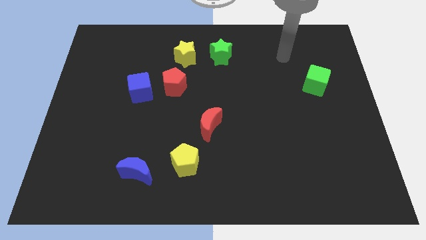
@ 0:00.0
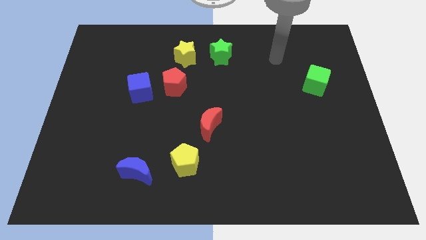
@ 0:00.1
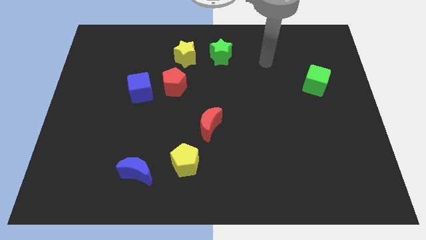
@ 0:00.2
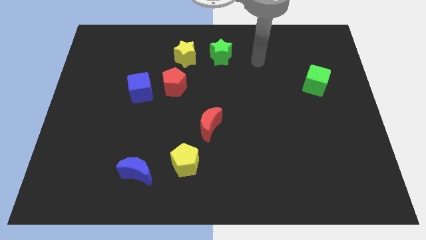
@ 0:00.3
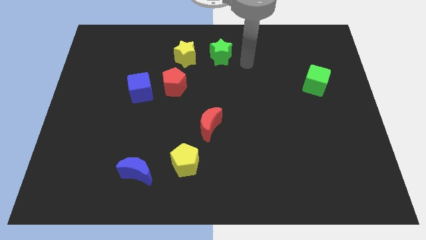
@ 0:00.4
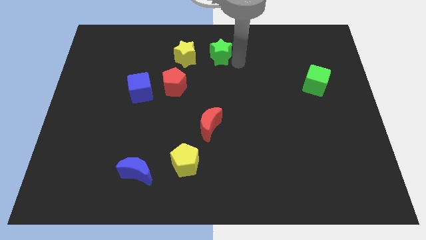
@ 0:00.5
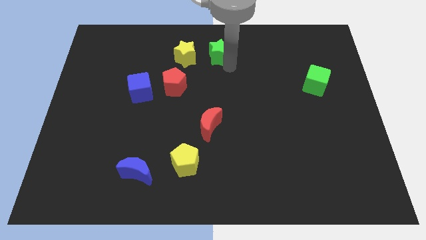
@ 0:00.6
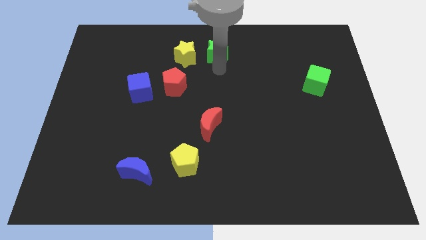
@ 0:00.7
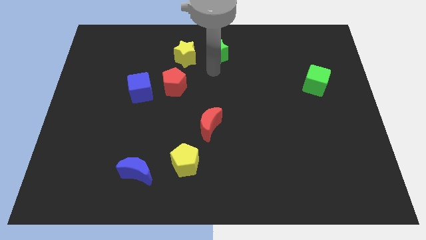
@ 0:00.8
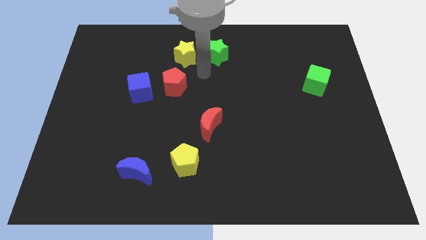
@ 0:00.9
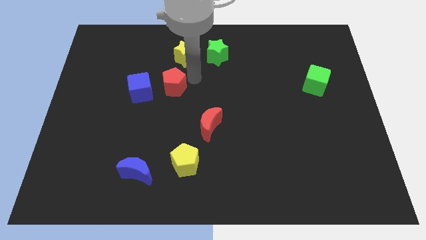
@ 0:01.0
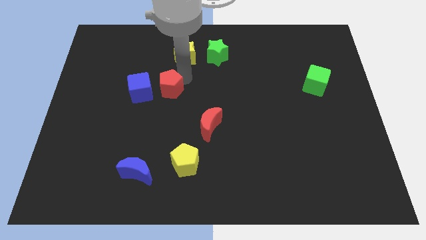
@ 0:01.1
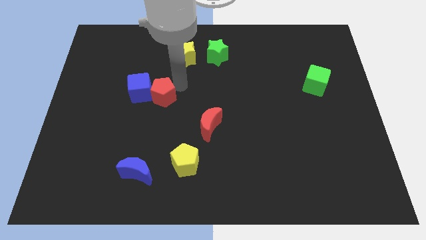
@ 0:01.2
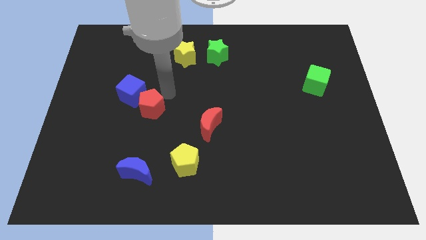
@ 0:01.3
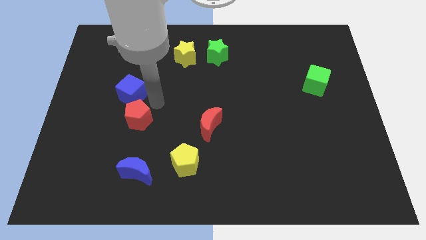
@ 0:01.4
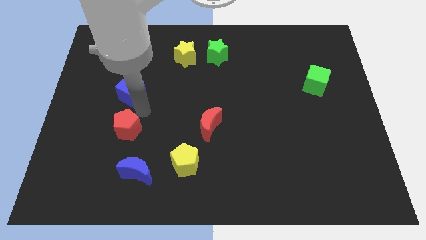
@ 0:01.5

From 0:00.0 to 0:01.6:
separate the blue cube from the red pentagon

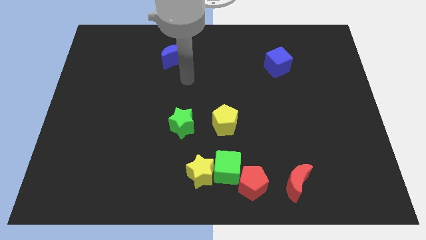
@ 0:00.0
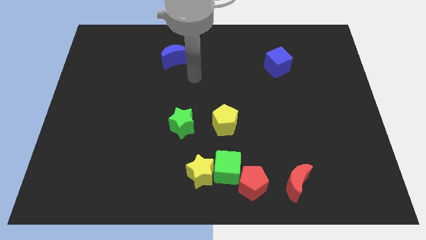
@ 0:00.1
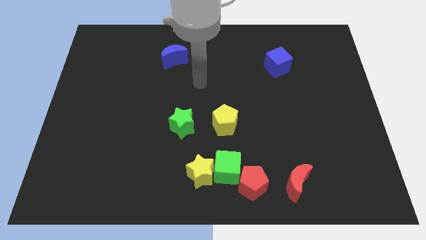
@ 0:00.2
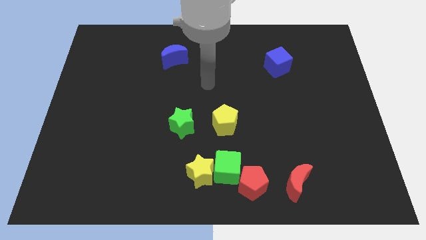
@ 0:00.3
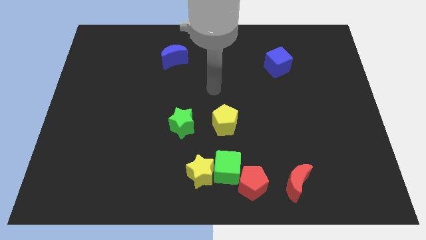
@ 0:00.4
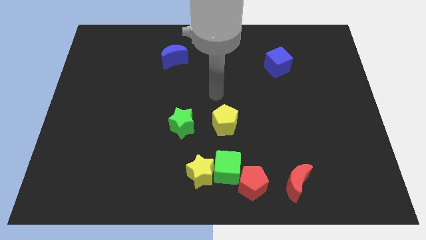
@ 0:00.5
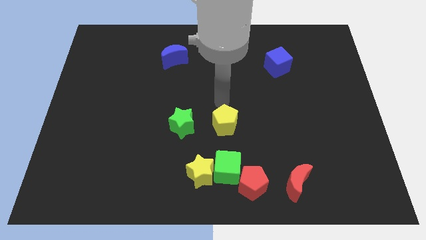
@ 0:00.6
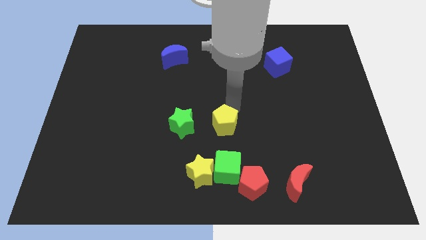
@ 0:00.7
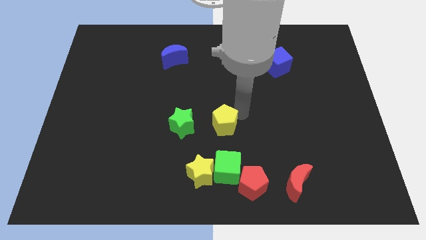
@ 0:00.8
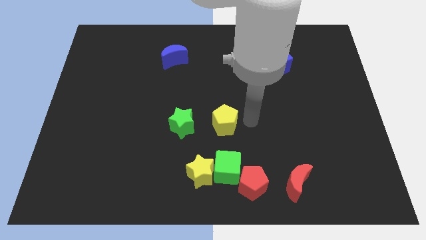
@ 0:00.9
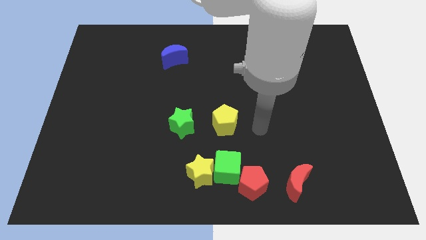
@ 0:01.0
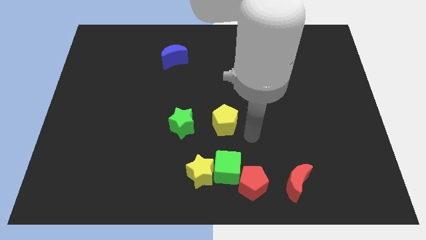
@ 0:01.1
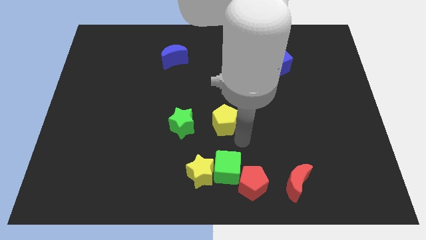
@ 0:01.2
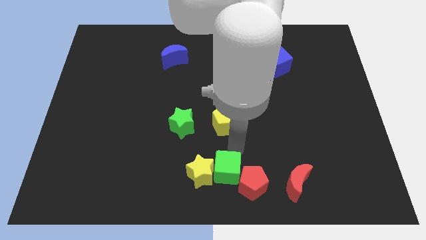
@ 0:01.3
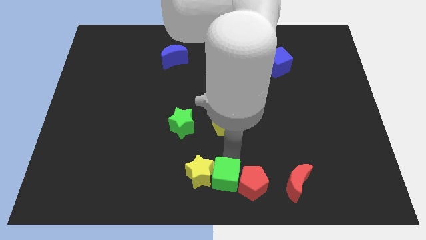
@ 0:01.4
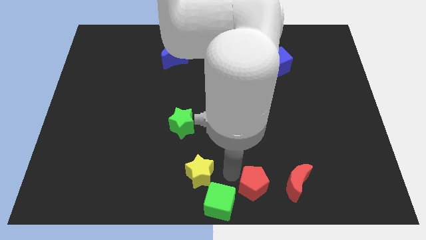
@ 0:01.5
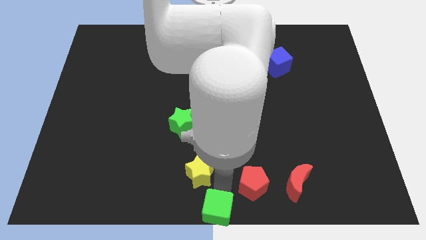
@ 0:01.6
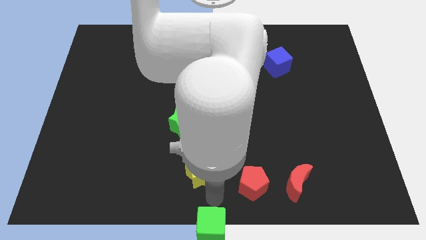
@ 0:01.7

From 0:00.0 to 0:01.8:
move the yellow star away from the green cube

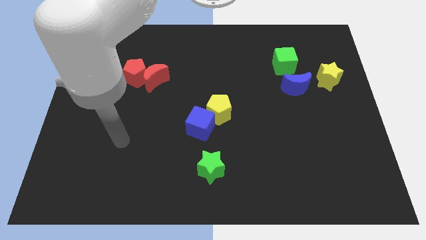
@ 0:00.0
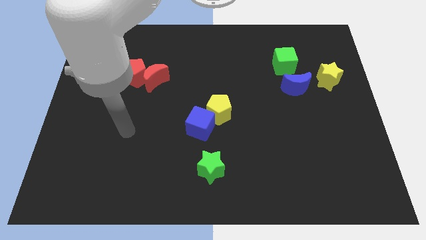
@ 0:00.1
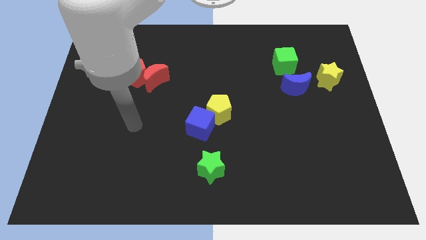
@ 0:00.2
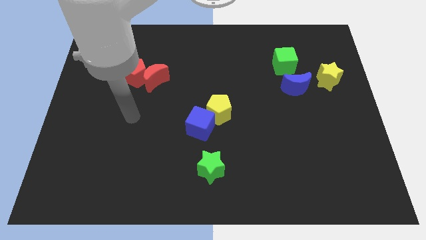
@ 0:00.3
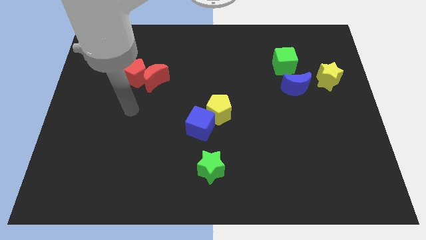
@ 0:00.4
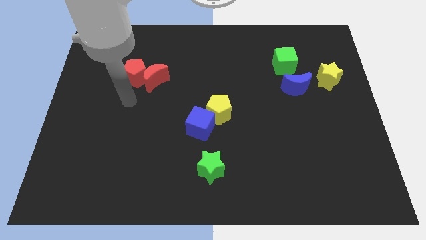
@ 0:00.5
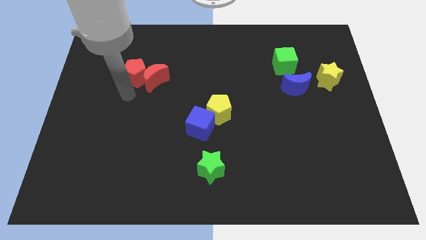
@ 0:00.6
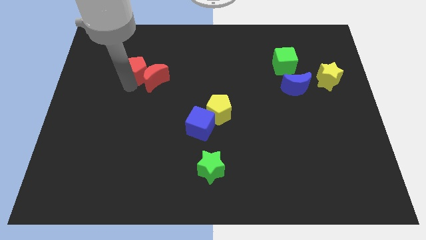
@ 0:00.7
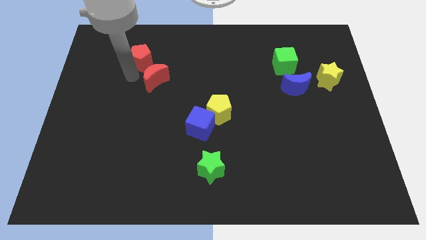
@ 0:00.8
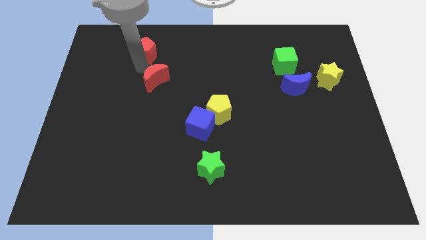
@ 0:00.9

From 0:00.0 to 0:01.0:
pull the red moon apart from the red pentagon

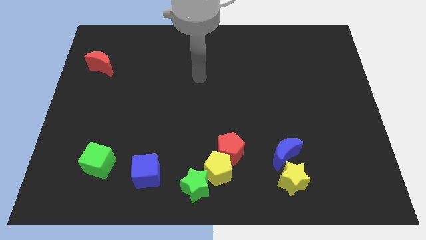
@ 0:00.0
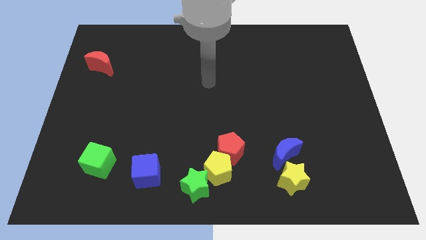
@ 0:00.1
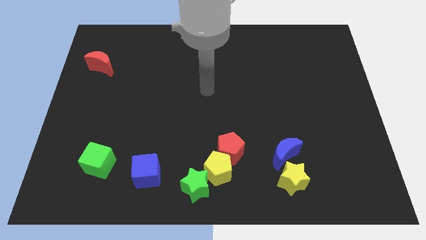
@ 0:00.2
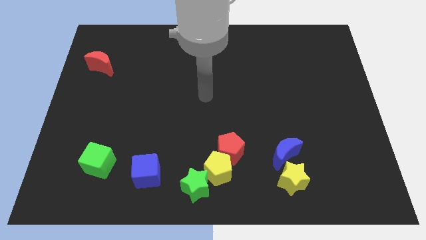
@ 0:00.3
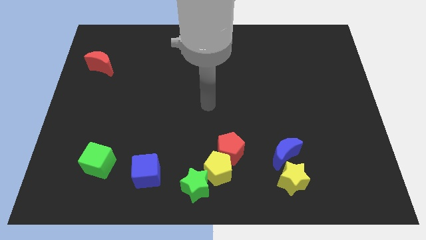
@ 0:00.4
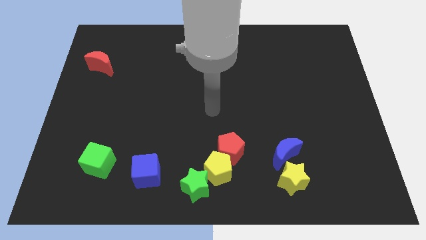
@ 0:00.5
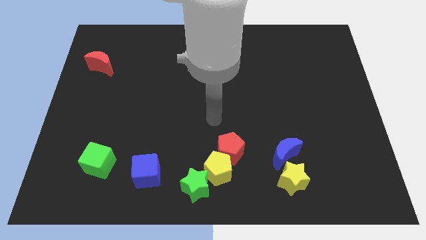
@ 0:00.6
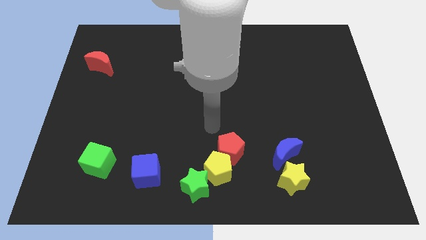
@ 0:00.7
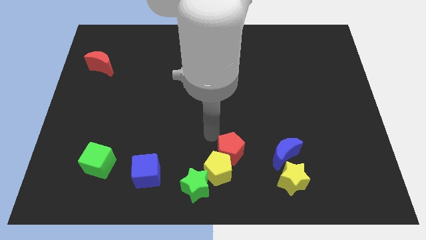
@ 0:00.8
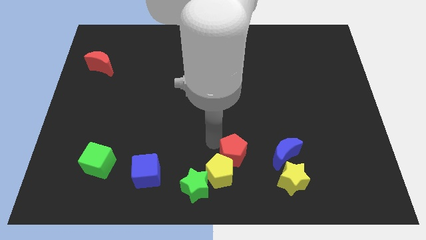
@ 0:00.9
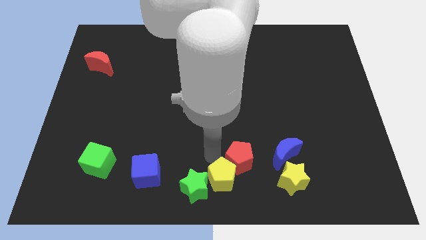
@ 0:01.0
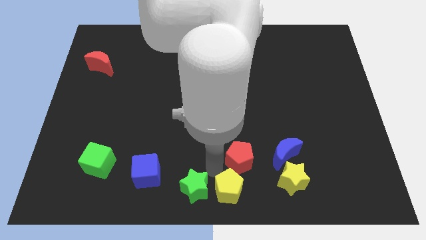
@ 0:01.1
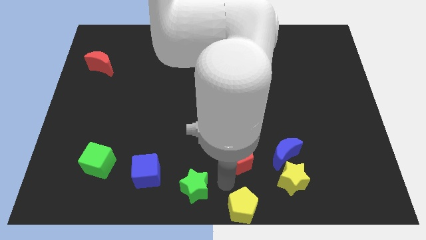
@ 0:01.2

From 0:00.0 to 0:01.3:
separate the red pentagon from the yellow pentagon

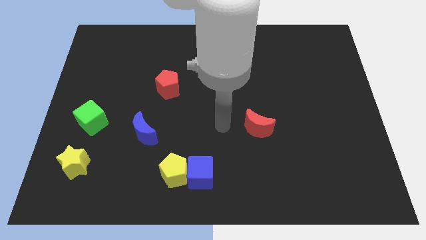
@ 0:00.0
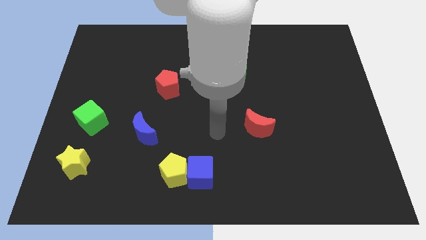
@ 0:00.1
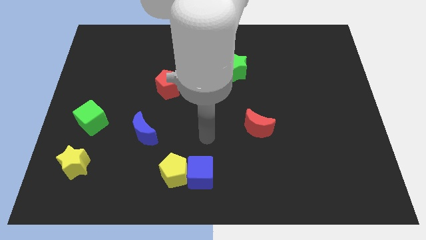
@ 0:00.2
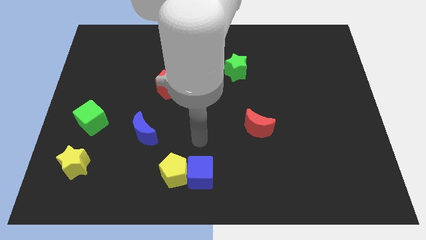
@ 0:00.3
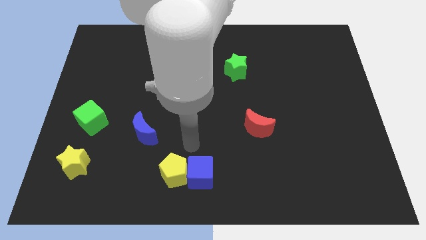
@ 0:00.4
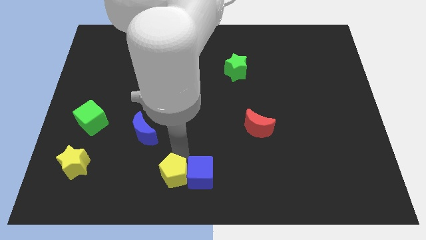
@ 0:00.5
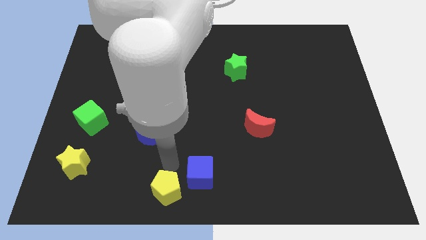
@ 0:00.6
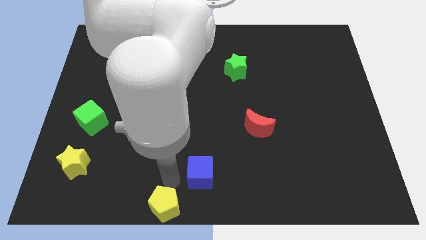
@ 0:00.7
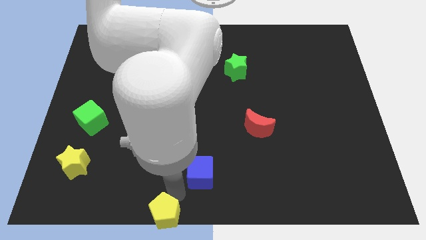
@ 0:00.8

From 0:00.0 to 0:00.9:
move the blue cube away from the yellow pentagon

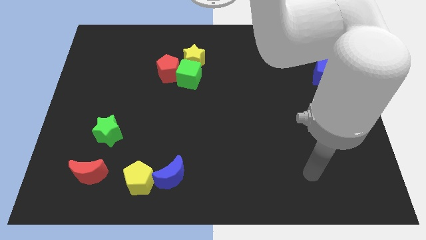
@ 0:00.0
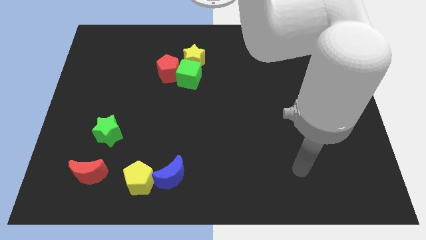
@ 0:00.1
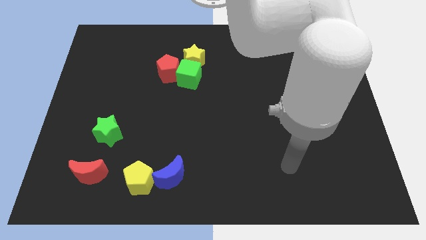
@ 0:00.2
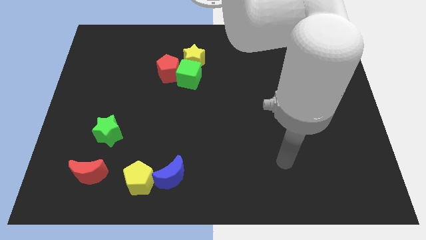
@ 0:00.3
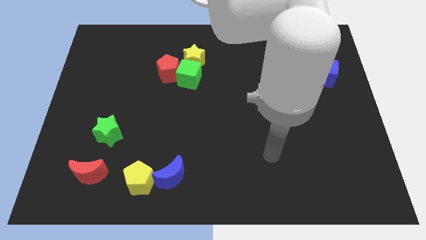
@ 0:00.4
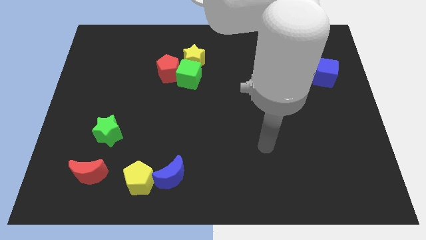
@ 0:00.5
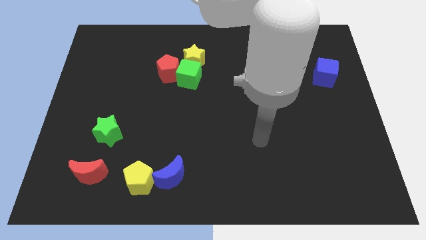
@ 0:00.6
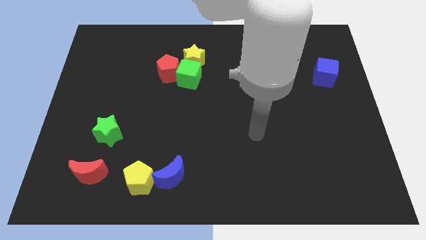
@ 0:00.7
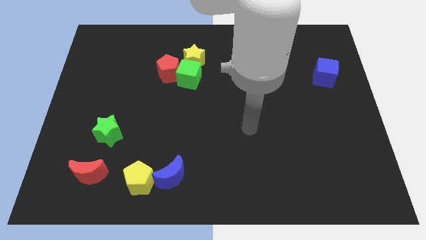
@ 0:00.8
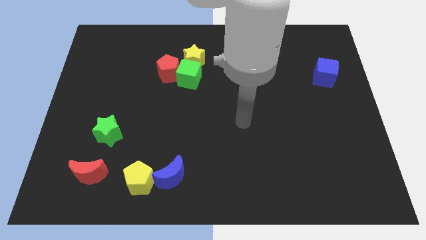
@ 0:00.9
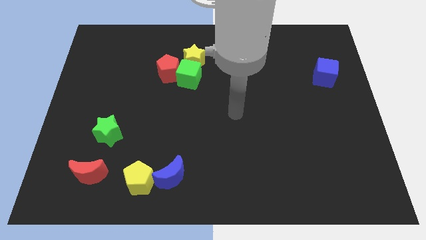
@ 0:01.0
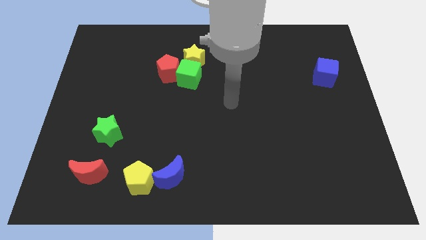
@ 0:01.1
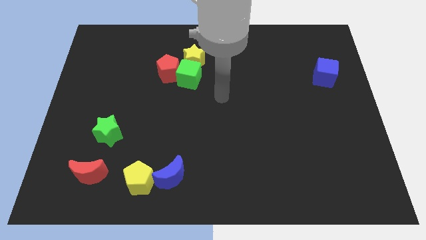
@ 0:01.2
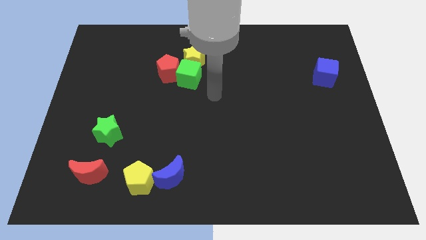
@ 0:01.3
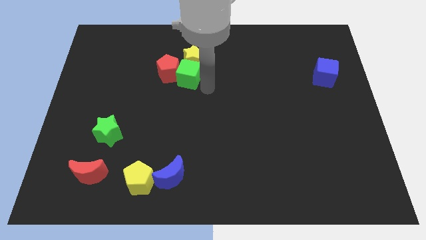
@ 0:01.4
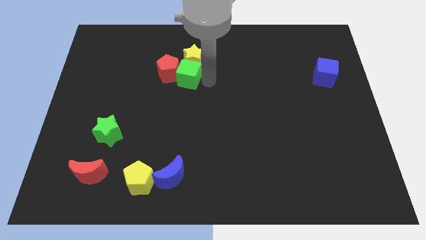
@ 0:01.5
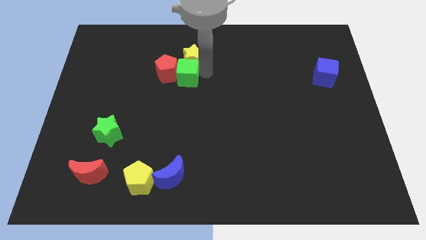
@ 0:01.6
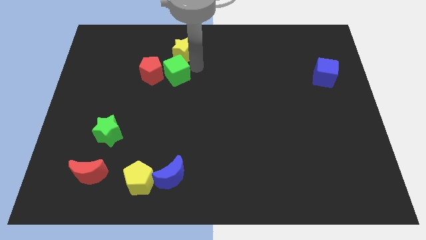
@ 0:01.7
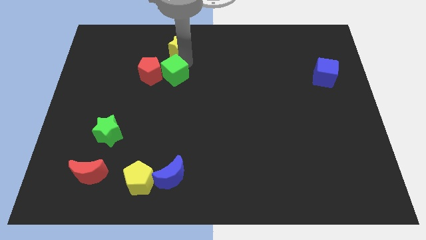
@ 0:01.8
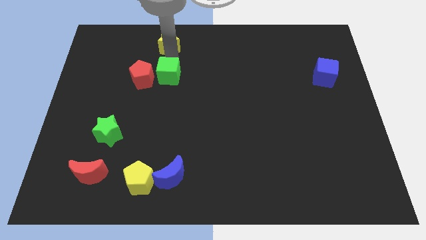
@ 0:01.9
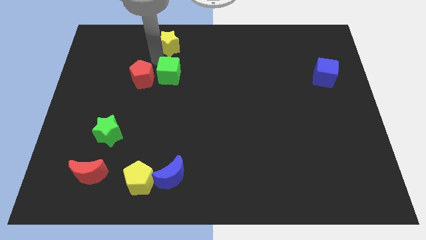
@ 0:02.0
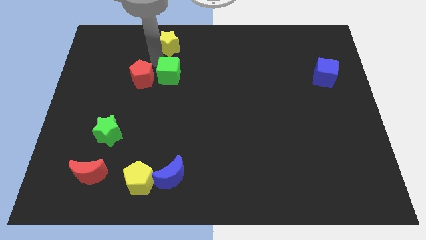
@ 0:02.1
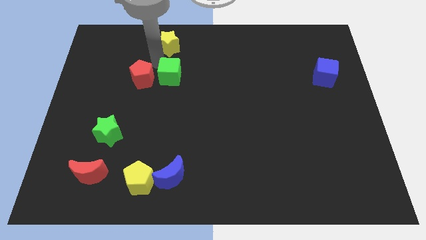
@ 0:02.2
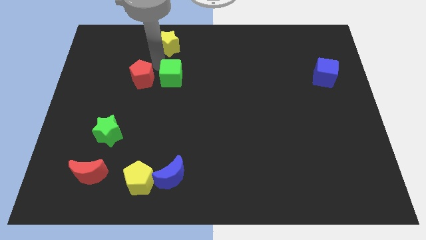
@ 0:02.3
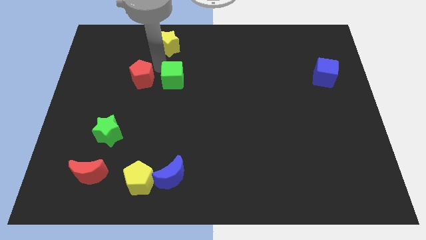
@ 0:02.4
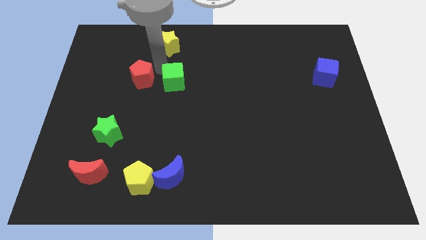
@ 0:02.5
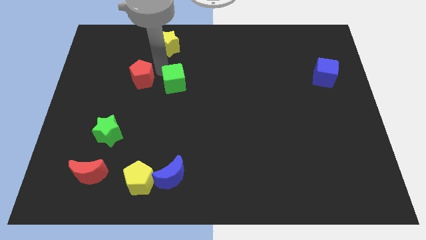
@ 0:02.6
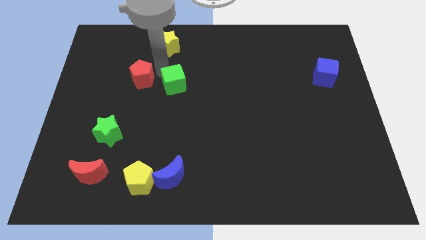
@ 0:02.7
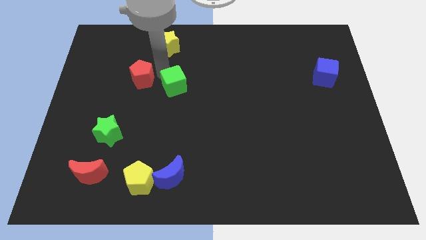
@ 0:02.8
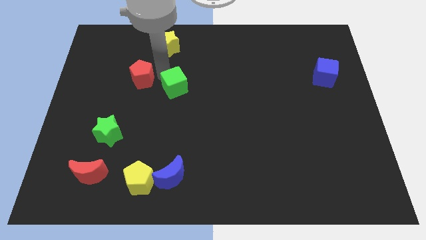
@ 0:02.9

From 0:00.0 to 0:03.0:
separate the green cube from the red pentagon and yellow star
